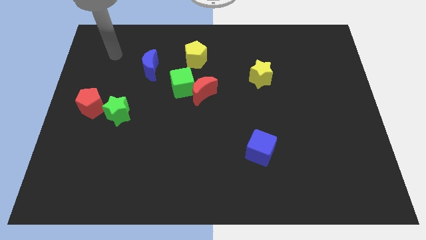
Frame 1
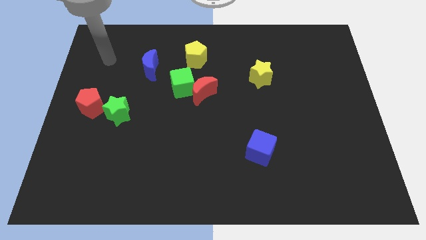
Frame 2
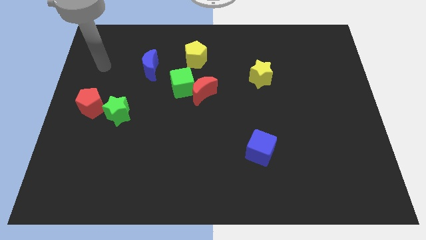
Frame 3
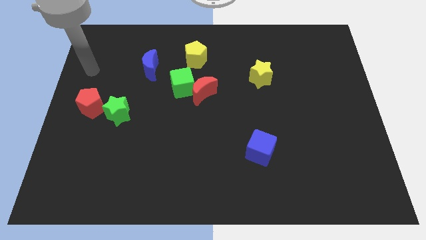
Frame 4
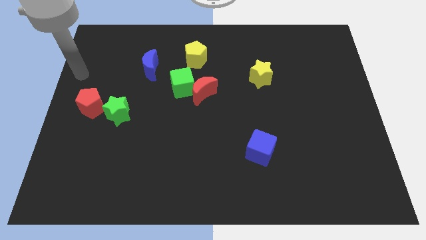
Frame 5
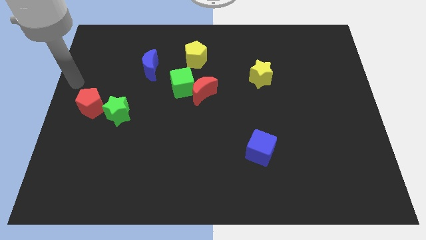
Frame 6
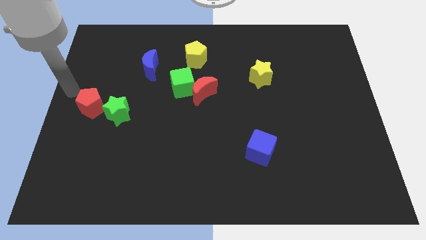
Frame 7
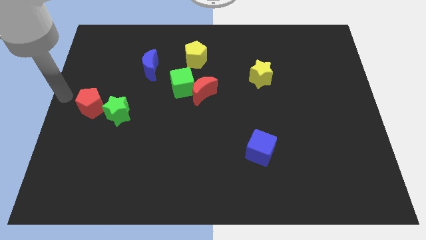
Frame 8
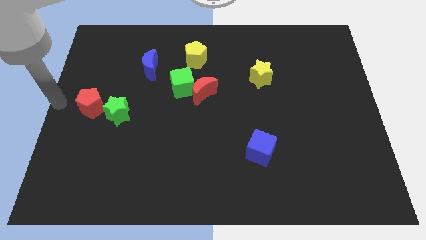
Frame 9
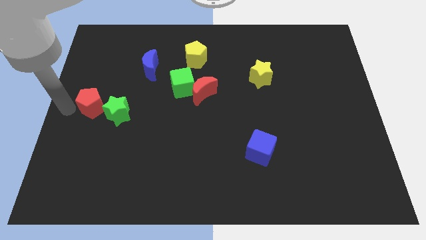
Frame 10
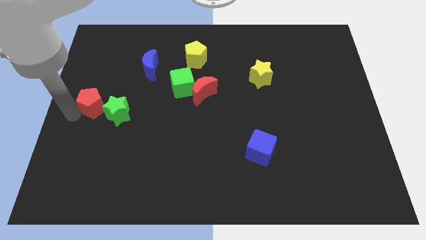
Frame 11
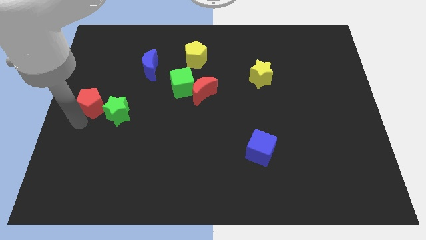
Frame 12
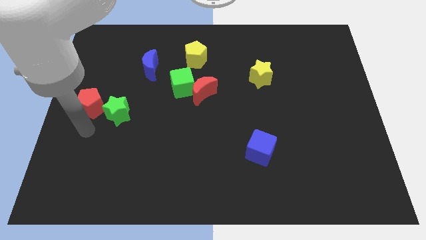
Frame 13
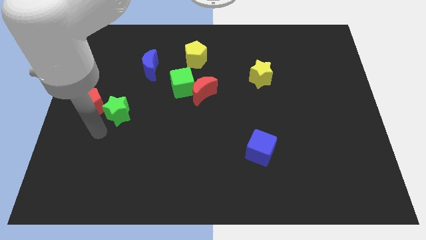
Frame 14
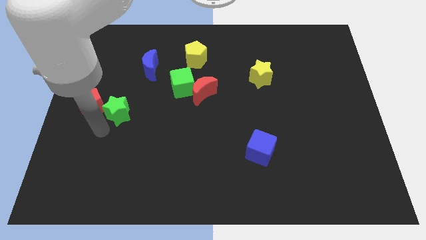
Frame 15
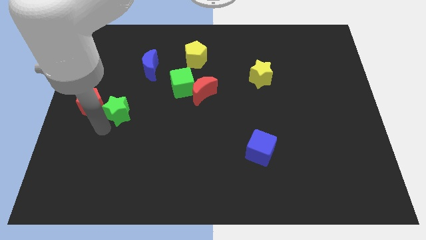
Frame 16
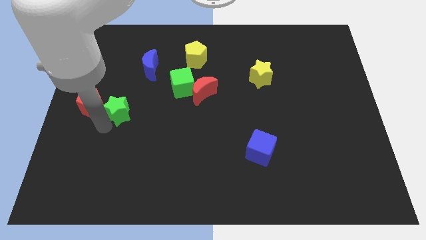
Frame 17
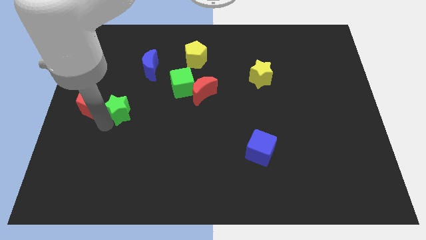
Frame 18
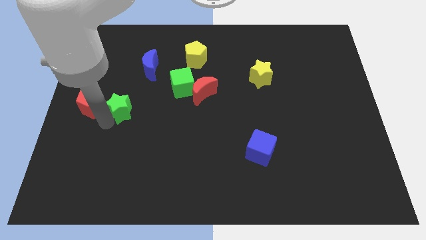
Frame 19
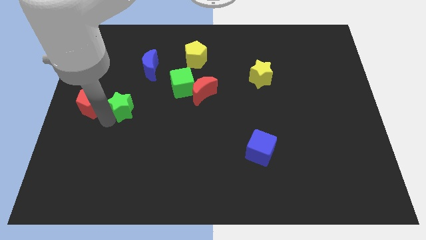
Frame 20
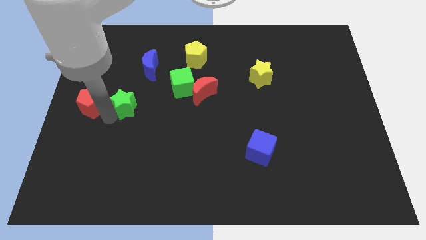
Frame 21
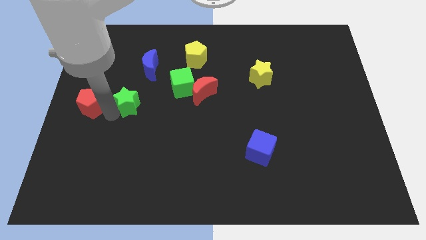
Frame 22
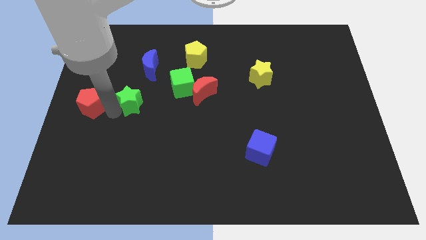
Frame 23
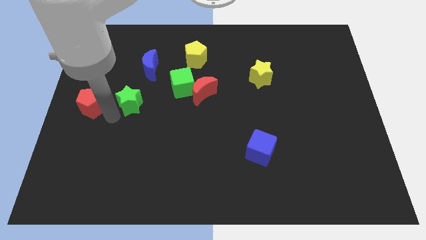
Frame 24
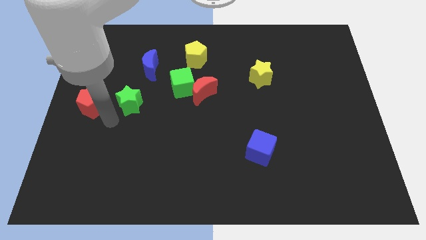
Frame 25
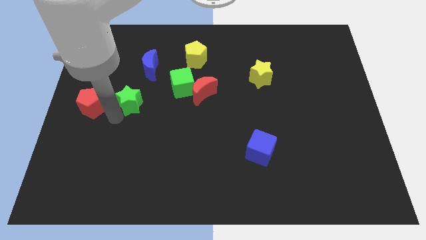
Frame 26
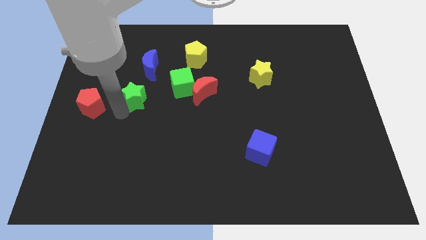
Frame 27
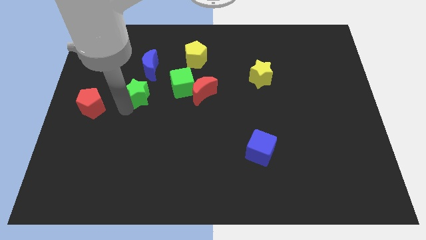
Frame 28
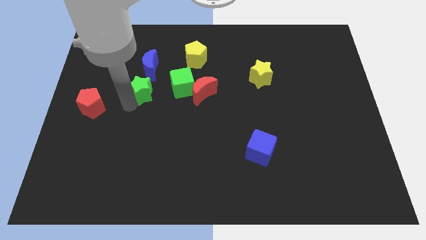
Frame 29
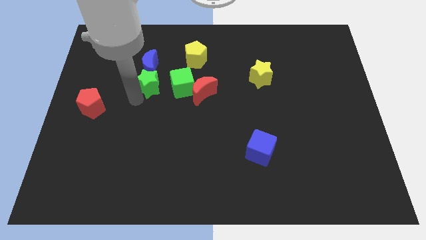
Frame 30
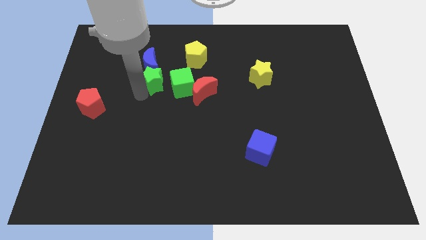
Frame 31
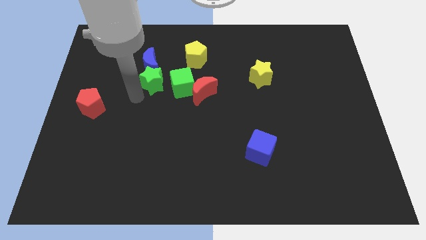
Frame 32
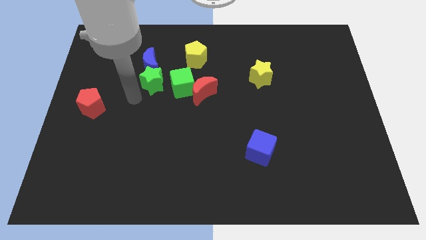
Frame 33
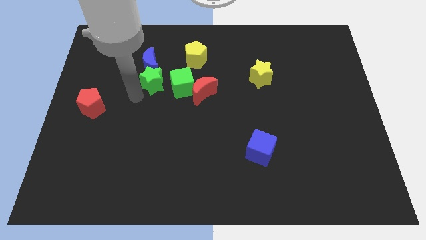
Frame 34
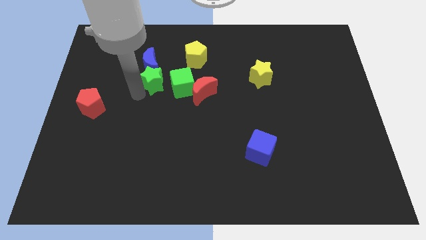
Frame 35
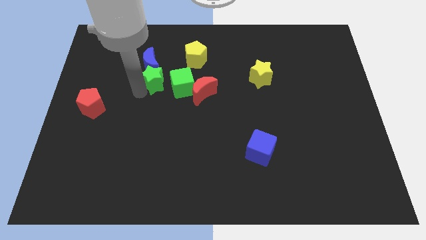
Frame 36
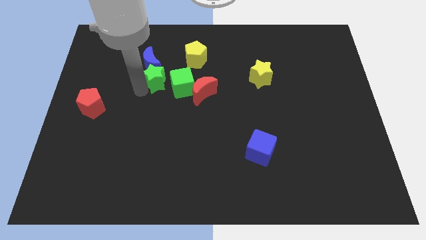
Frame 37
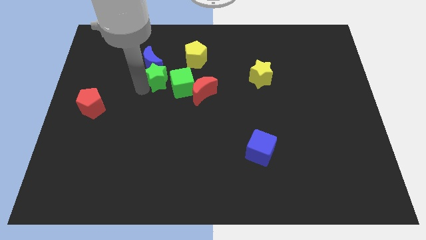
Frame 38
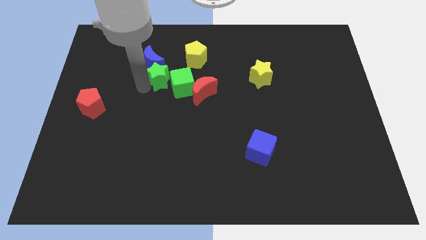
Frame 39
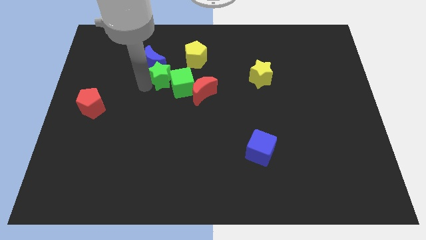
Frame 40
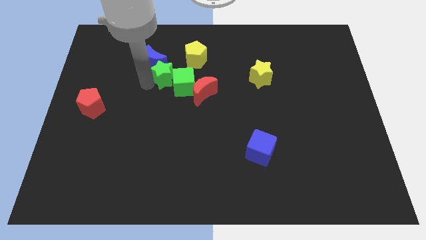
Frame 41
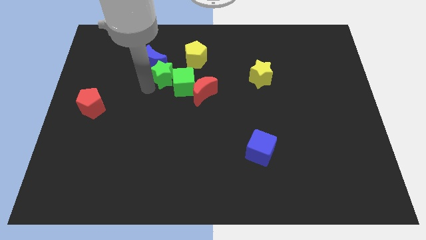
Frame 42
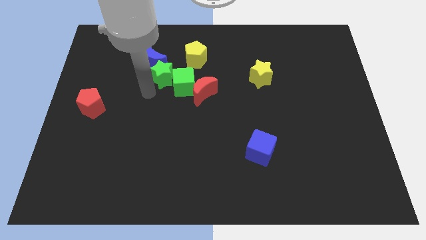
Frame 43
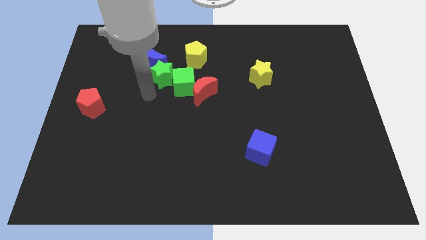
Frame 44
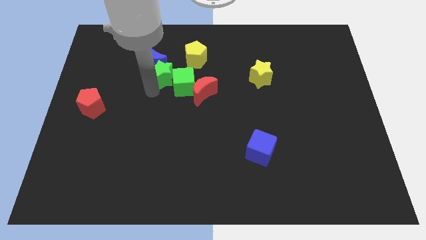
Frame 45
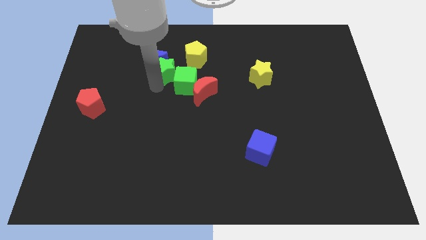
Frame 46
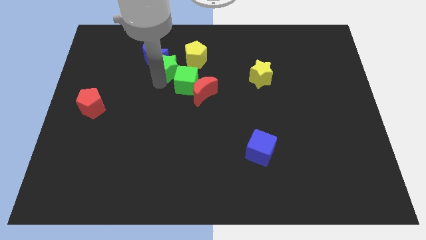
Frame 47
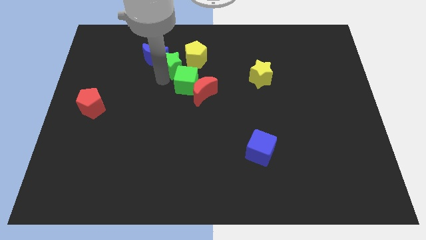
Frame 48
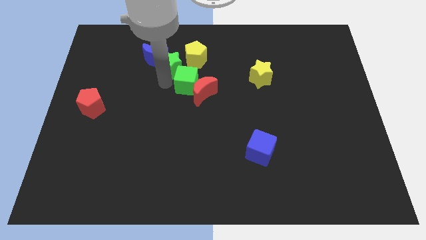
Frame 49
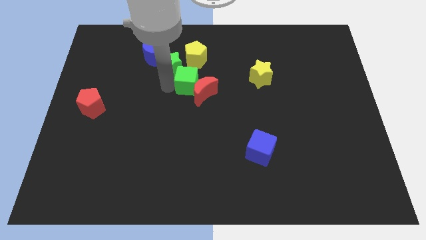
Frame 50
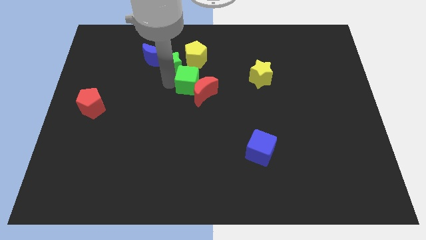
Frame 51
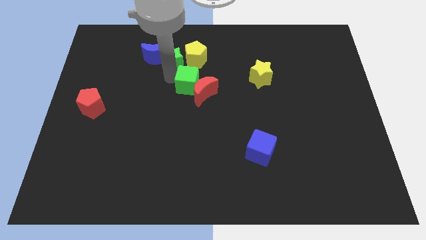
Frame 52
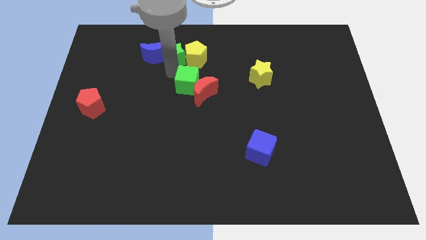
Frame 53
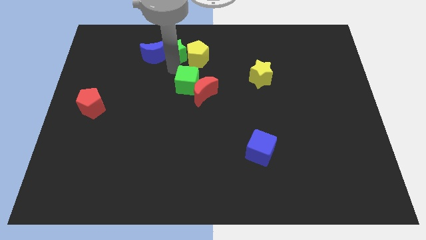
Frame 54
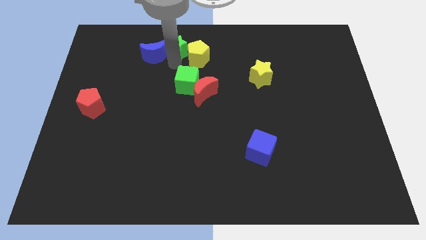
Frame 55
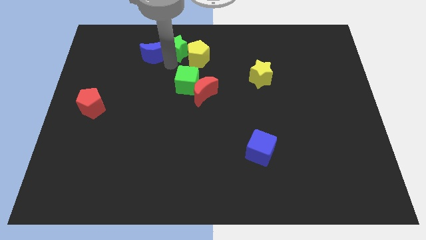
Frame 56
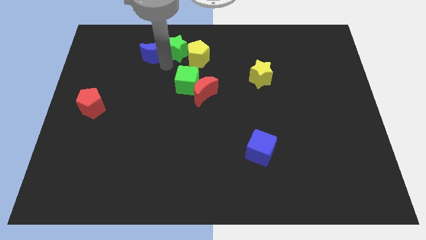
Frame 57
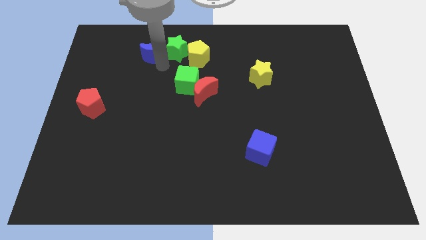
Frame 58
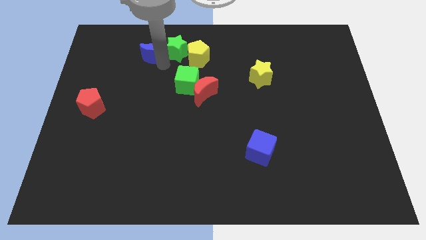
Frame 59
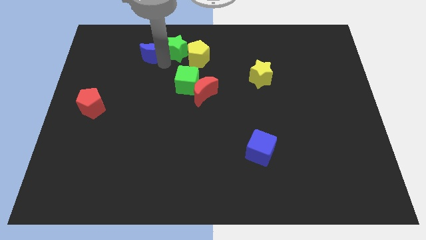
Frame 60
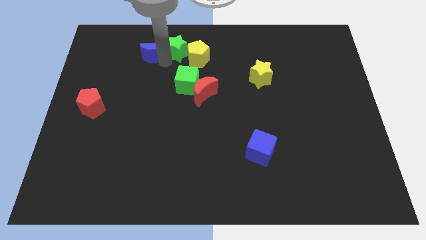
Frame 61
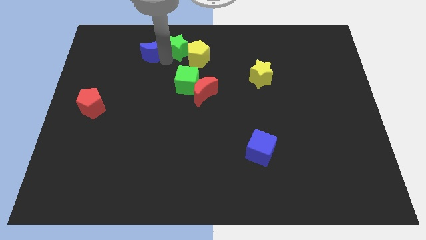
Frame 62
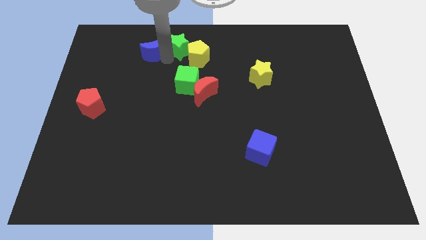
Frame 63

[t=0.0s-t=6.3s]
slide the green star to the towards your base
